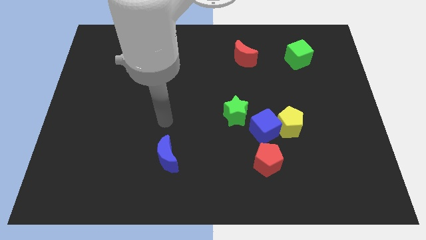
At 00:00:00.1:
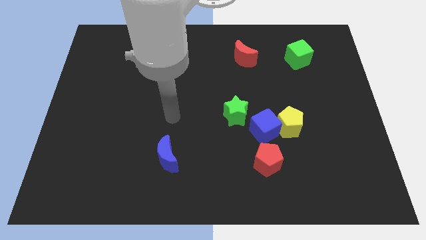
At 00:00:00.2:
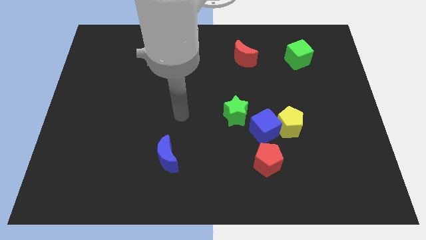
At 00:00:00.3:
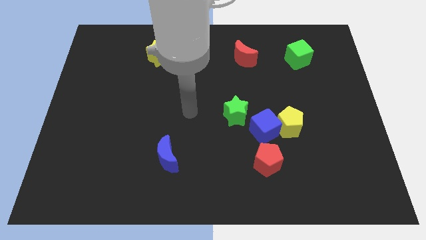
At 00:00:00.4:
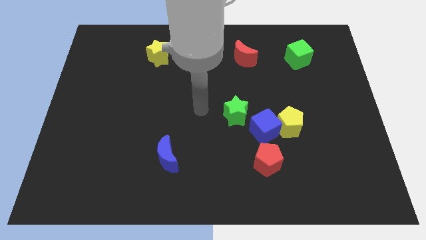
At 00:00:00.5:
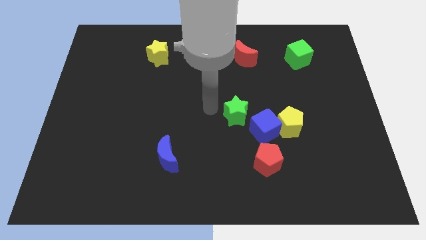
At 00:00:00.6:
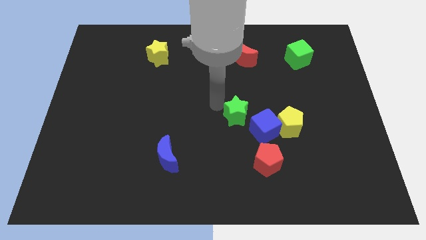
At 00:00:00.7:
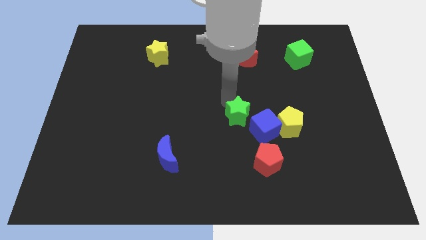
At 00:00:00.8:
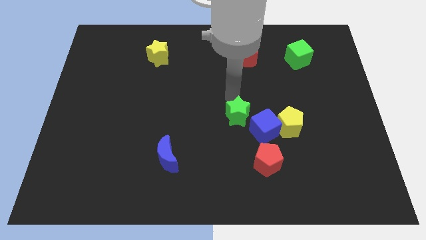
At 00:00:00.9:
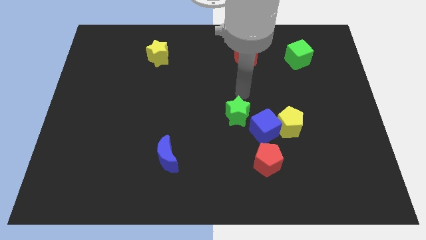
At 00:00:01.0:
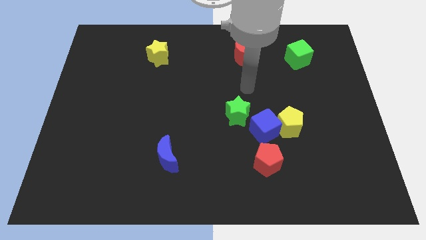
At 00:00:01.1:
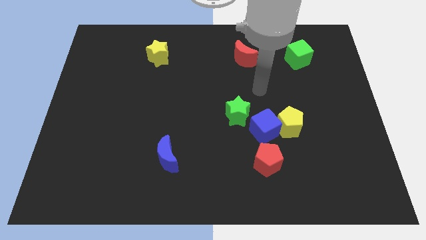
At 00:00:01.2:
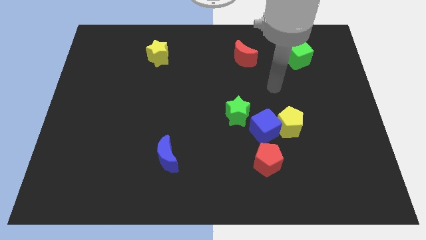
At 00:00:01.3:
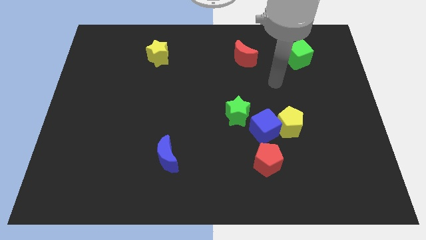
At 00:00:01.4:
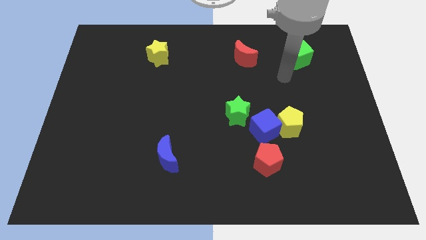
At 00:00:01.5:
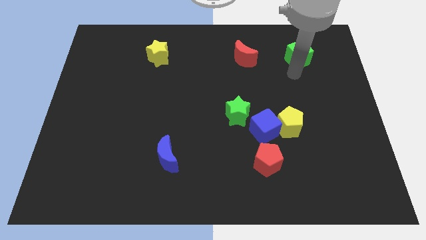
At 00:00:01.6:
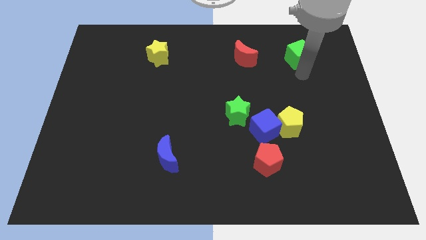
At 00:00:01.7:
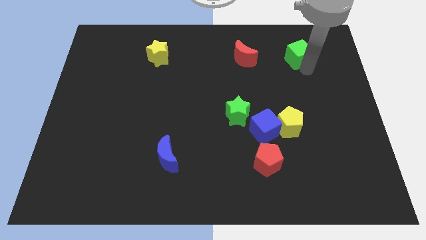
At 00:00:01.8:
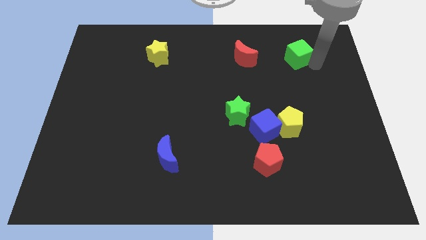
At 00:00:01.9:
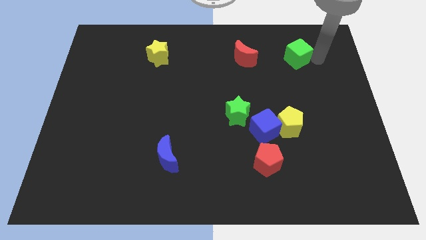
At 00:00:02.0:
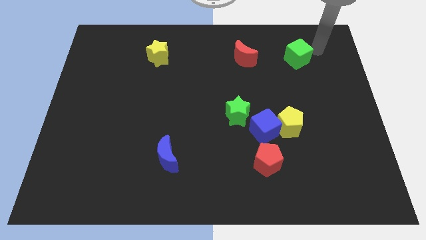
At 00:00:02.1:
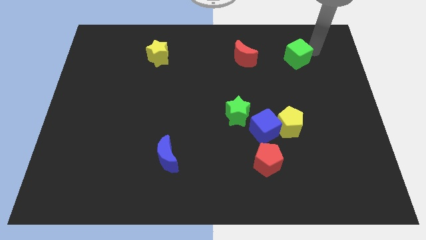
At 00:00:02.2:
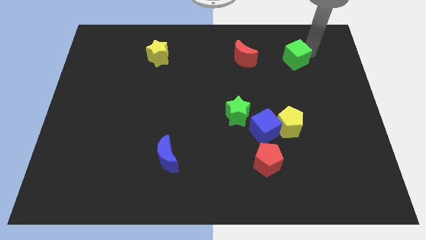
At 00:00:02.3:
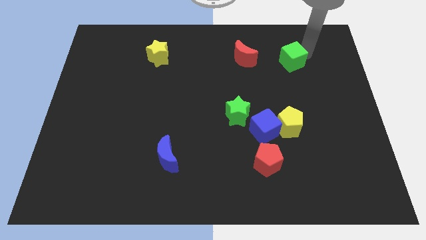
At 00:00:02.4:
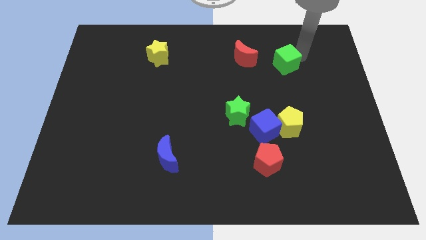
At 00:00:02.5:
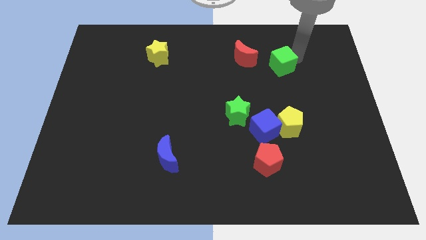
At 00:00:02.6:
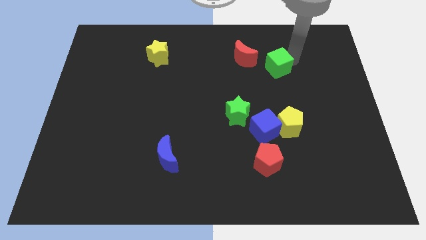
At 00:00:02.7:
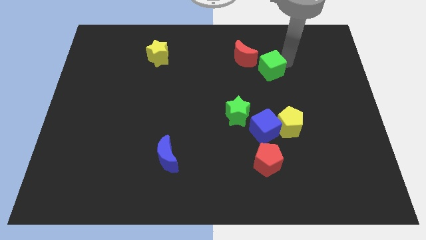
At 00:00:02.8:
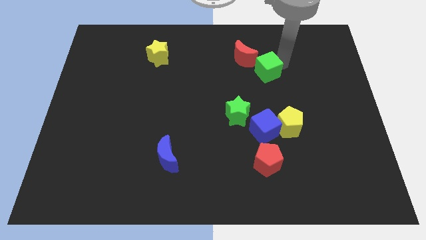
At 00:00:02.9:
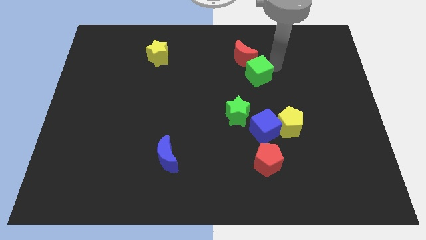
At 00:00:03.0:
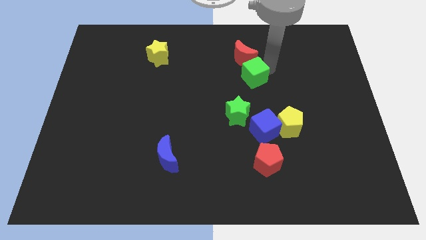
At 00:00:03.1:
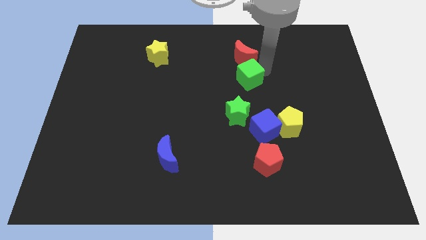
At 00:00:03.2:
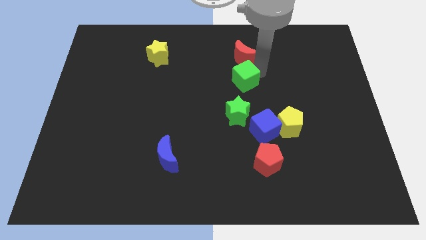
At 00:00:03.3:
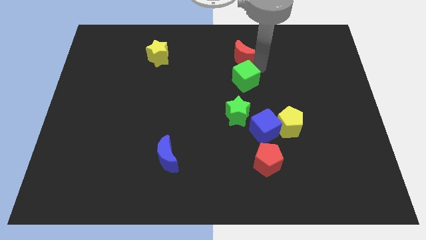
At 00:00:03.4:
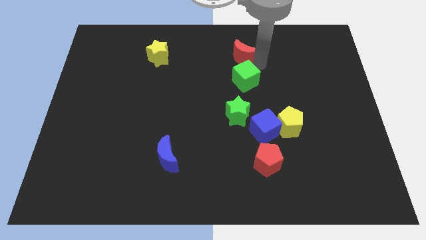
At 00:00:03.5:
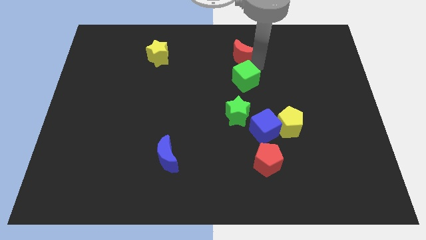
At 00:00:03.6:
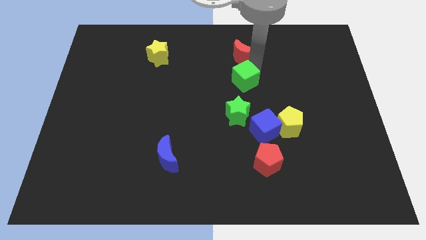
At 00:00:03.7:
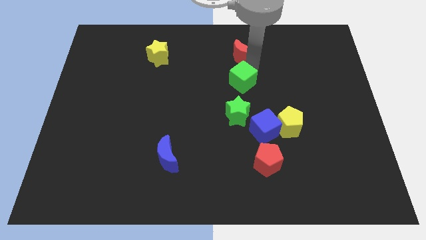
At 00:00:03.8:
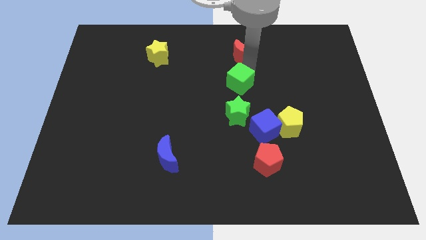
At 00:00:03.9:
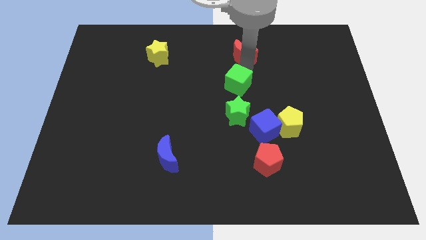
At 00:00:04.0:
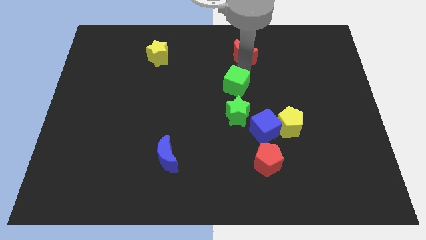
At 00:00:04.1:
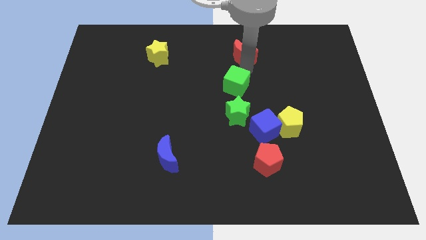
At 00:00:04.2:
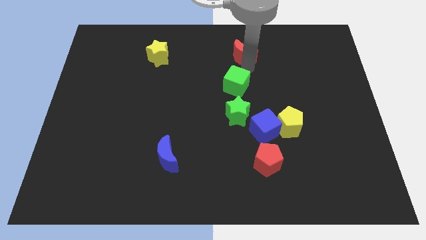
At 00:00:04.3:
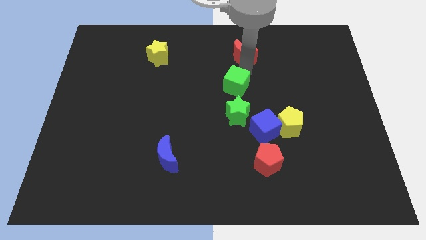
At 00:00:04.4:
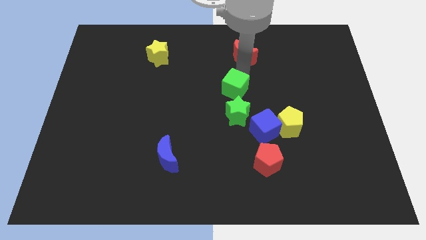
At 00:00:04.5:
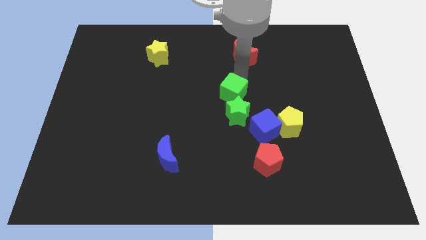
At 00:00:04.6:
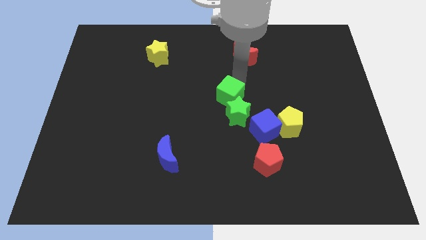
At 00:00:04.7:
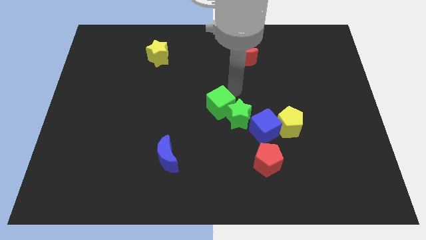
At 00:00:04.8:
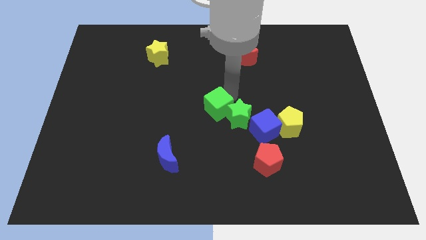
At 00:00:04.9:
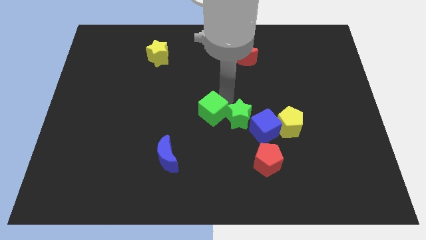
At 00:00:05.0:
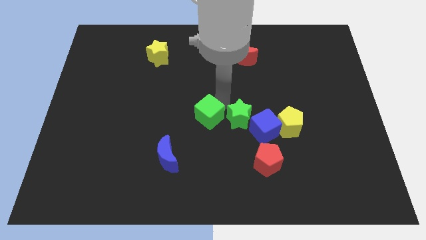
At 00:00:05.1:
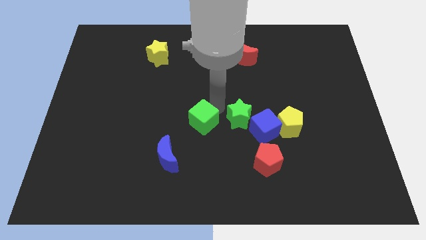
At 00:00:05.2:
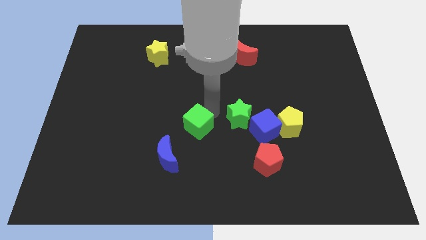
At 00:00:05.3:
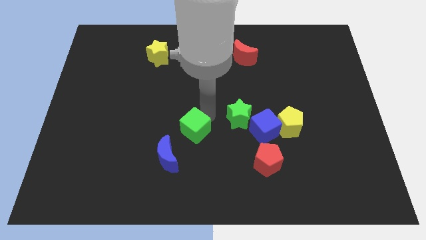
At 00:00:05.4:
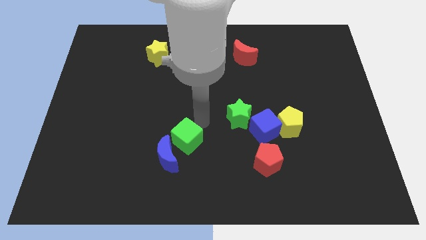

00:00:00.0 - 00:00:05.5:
move the green cube next to the blue moon

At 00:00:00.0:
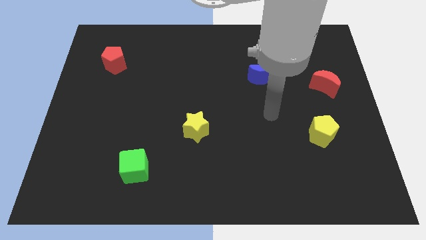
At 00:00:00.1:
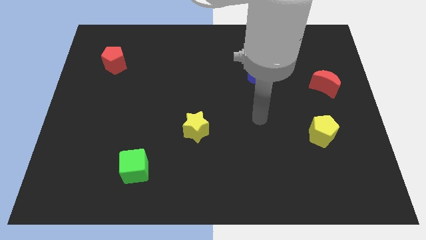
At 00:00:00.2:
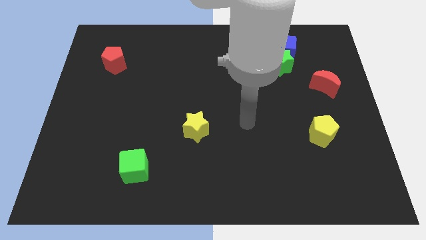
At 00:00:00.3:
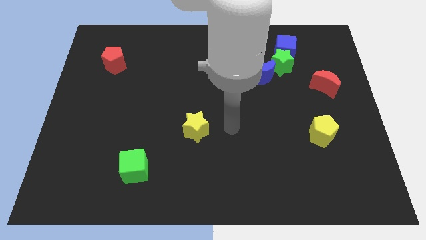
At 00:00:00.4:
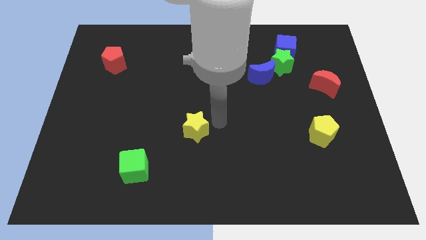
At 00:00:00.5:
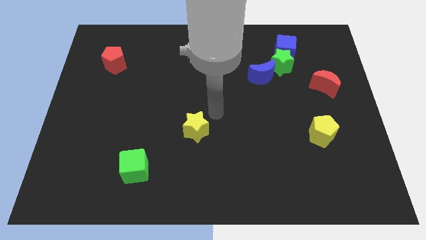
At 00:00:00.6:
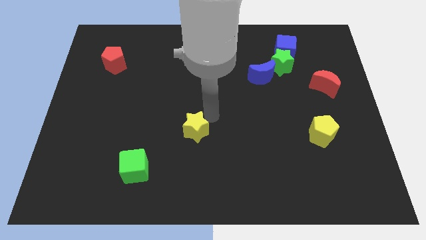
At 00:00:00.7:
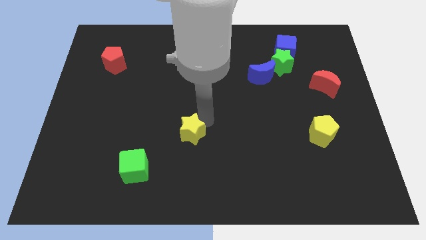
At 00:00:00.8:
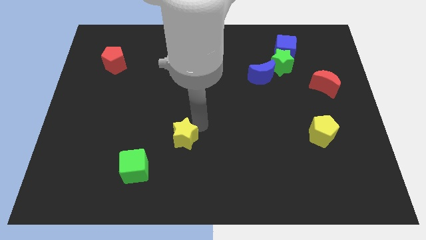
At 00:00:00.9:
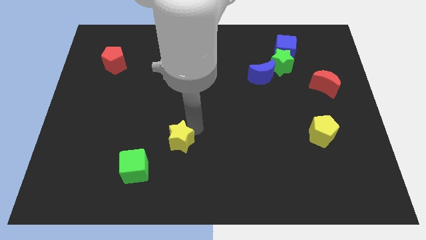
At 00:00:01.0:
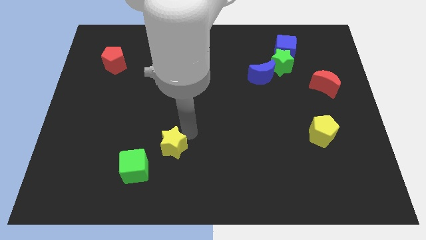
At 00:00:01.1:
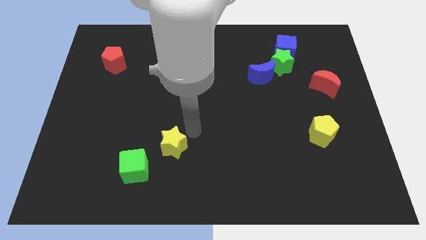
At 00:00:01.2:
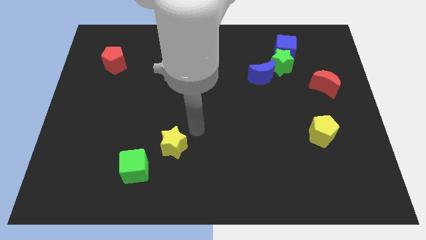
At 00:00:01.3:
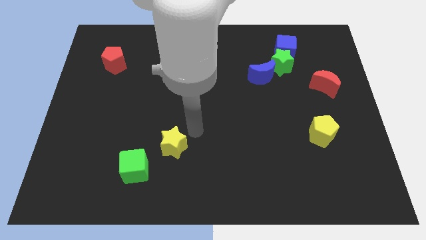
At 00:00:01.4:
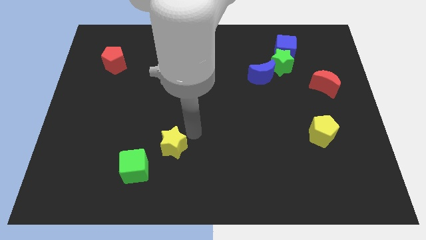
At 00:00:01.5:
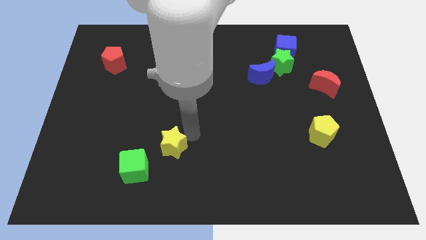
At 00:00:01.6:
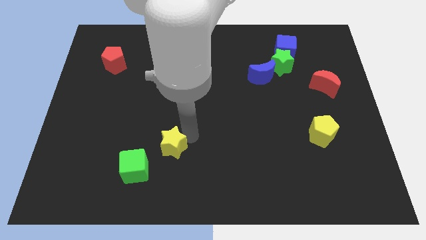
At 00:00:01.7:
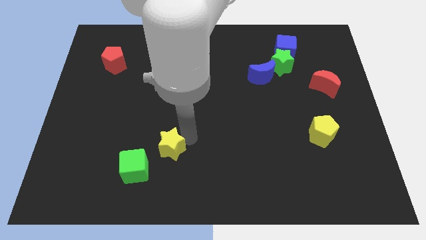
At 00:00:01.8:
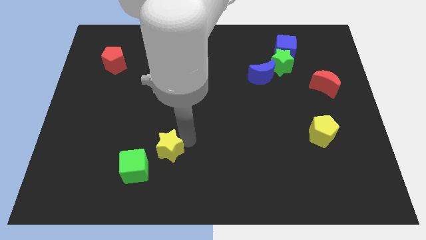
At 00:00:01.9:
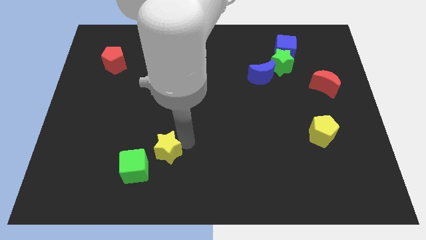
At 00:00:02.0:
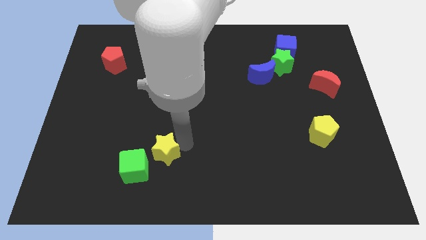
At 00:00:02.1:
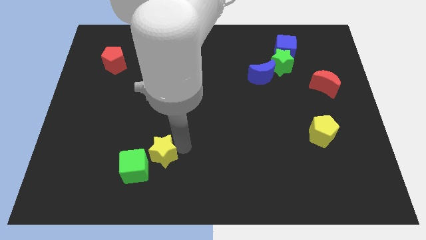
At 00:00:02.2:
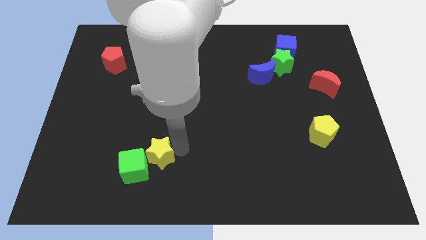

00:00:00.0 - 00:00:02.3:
put the yellow star next to the green cube
